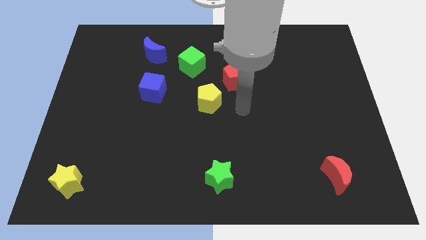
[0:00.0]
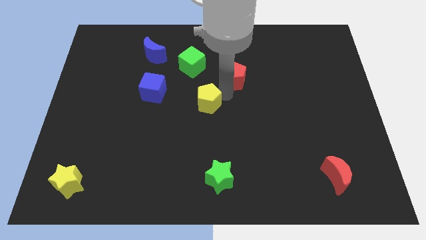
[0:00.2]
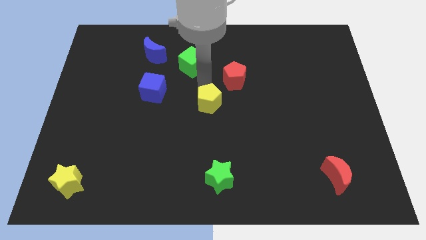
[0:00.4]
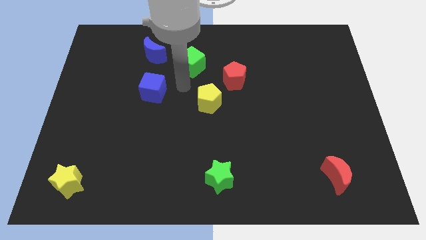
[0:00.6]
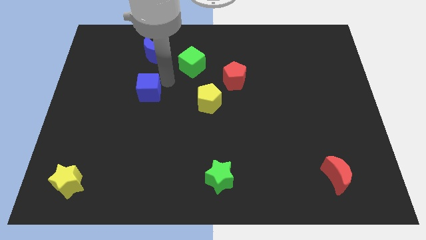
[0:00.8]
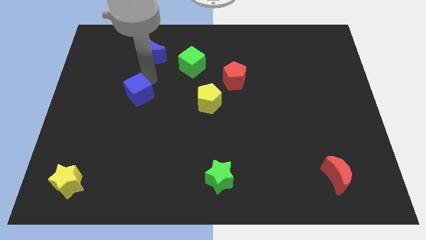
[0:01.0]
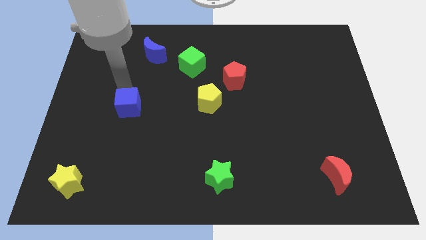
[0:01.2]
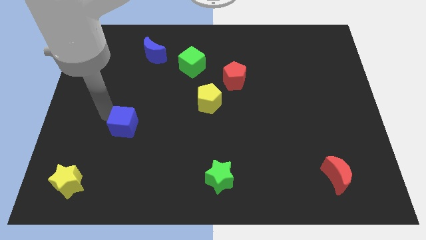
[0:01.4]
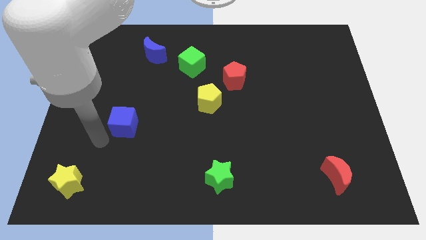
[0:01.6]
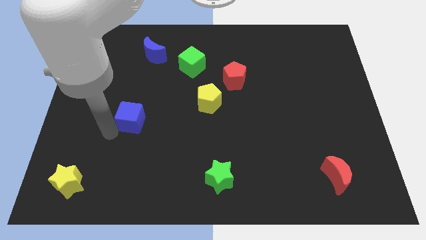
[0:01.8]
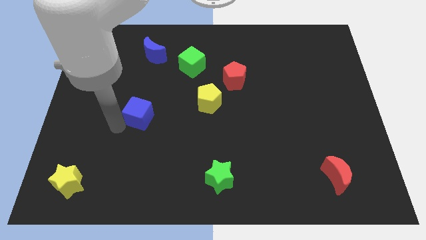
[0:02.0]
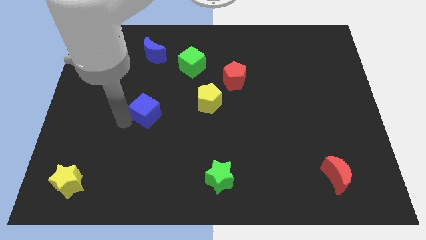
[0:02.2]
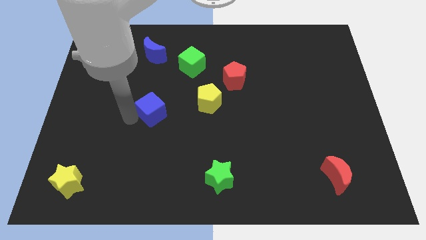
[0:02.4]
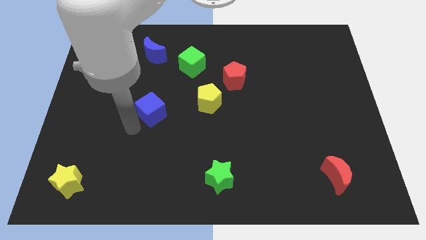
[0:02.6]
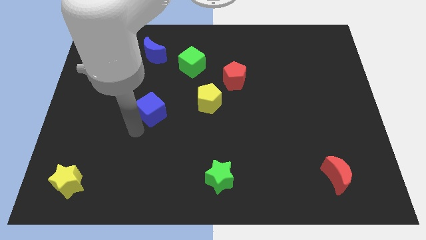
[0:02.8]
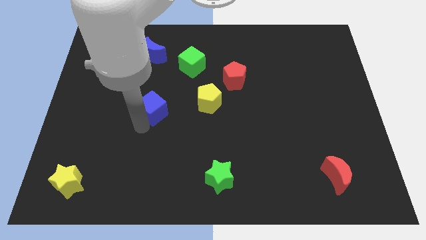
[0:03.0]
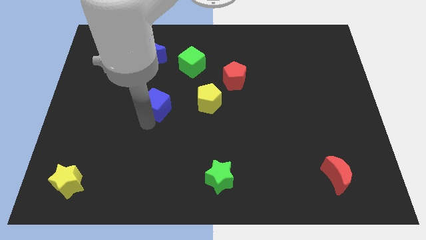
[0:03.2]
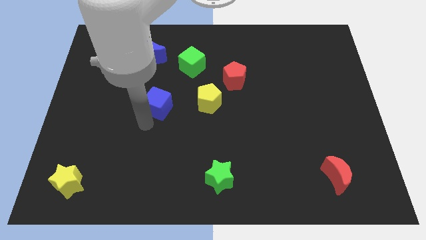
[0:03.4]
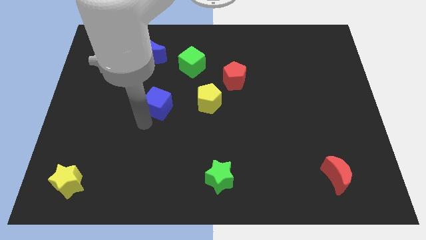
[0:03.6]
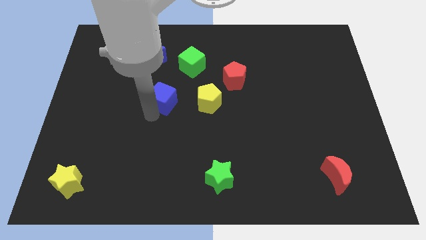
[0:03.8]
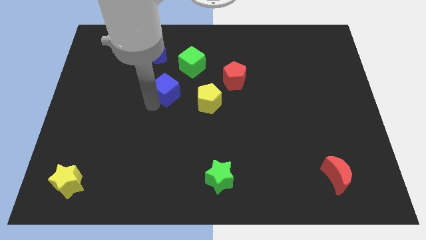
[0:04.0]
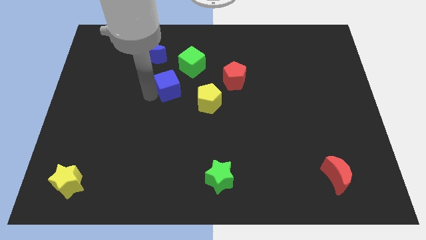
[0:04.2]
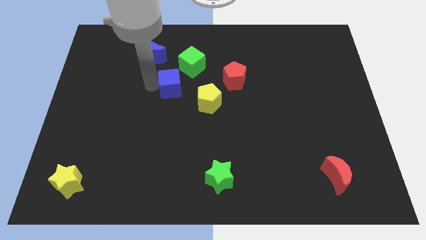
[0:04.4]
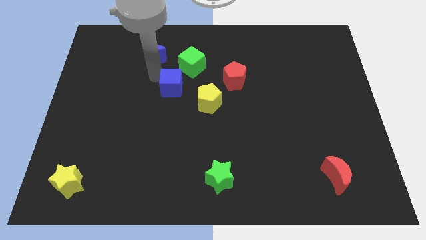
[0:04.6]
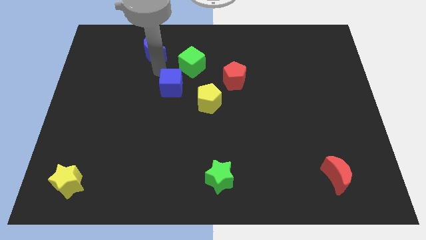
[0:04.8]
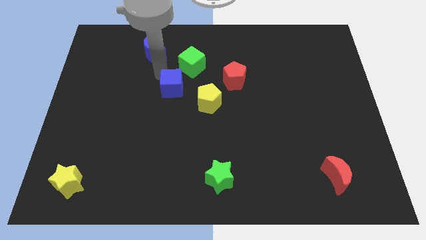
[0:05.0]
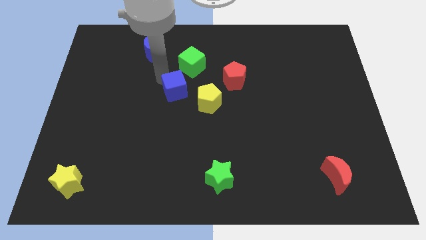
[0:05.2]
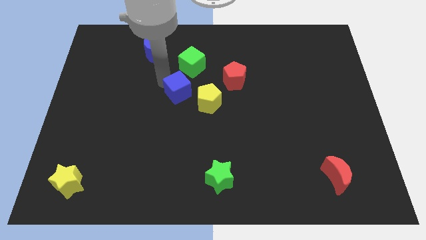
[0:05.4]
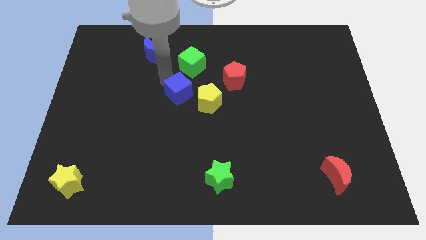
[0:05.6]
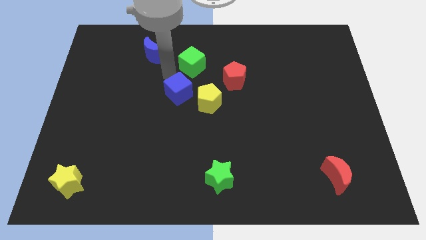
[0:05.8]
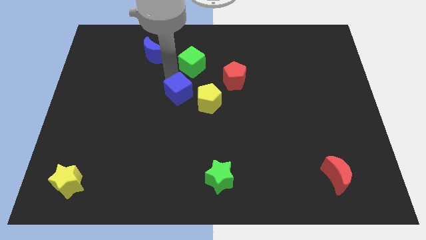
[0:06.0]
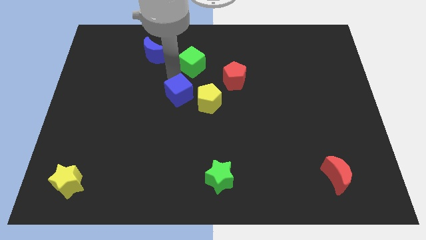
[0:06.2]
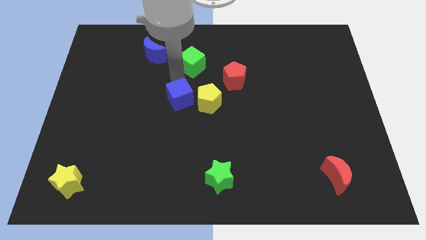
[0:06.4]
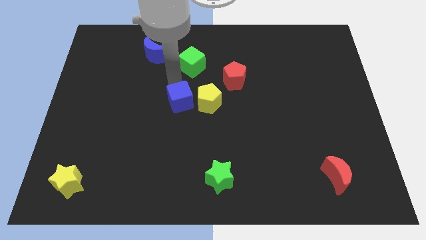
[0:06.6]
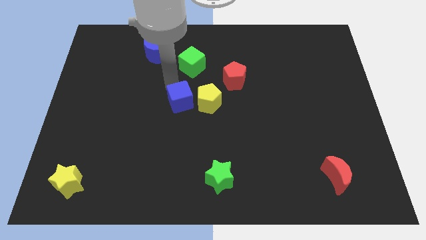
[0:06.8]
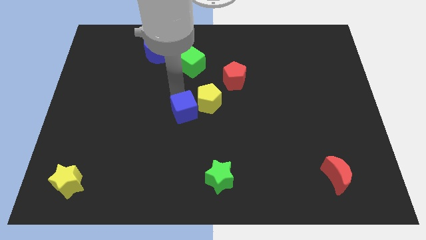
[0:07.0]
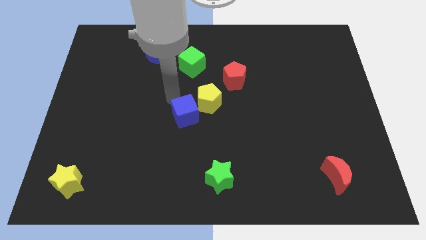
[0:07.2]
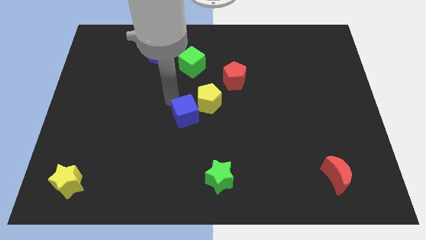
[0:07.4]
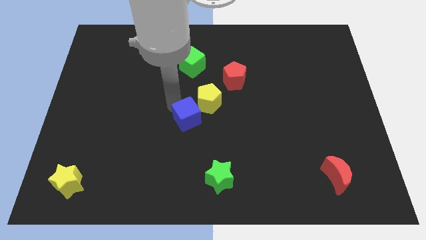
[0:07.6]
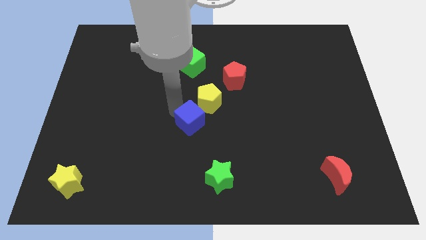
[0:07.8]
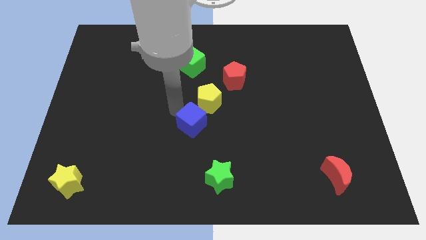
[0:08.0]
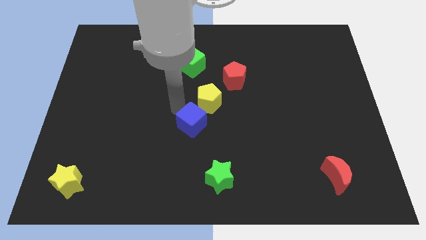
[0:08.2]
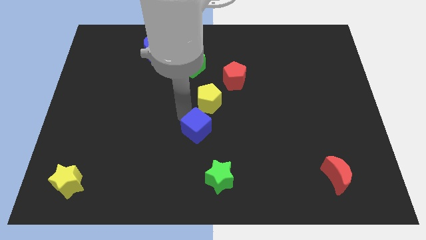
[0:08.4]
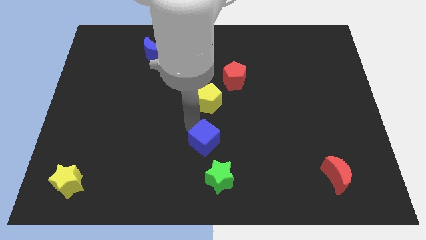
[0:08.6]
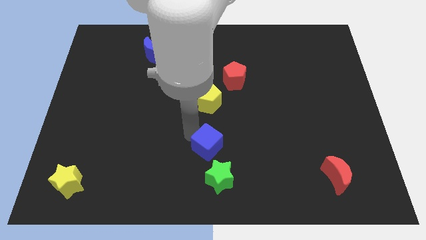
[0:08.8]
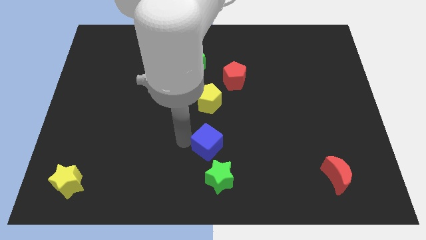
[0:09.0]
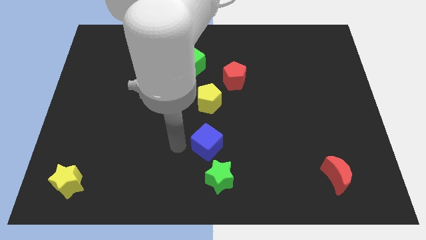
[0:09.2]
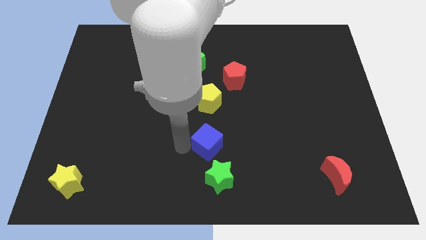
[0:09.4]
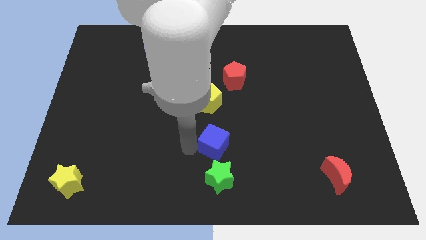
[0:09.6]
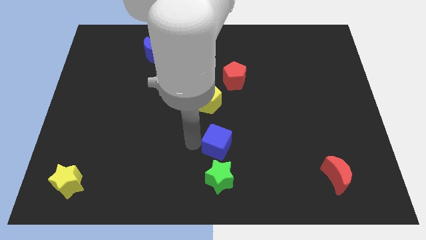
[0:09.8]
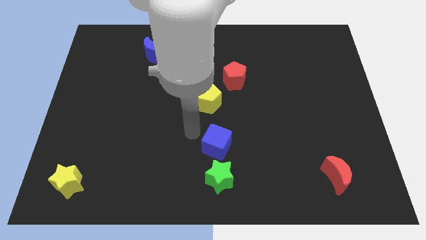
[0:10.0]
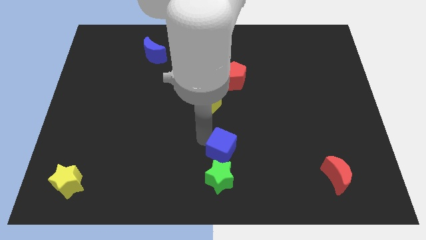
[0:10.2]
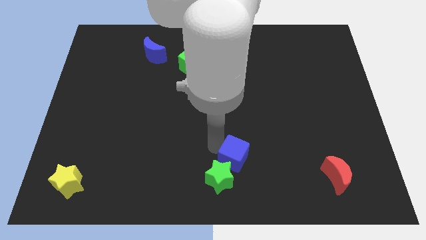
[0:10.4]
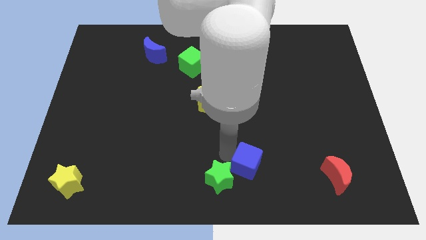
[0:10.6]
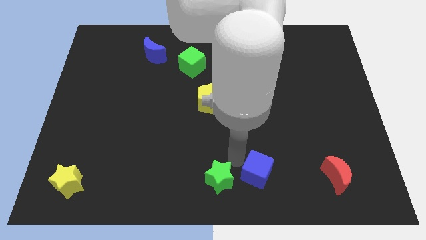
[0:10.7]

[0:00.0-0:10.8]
push the blue cube just left of the red moon

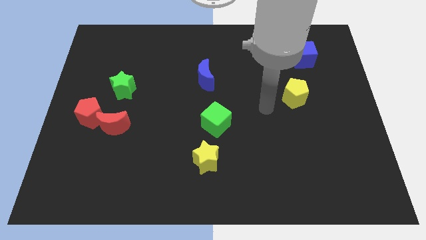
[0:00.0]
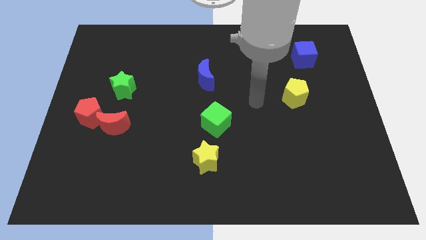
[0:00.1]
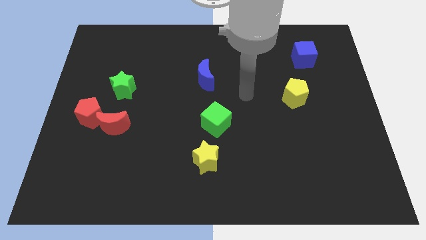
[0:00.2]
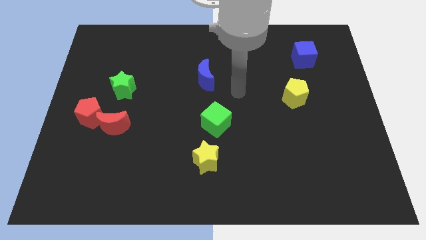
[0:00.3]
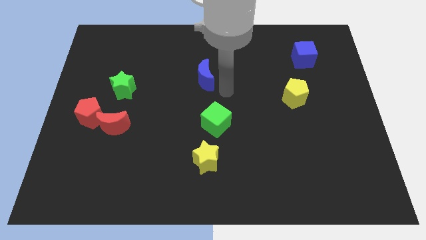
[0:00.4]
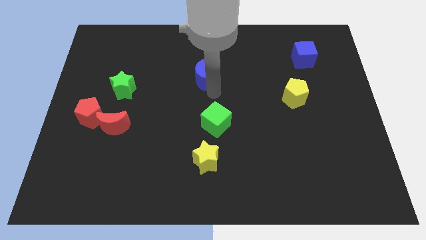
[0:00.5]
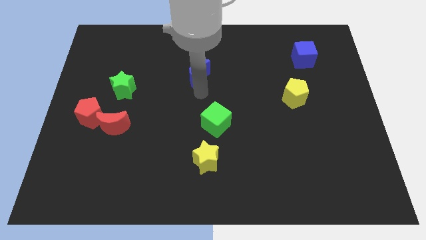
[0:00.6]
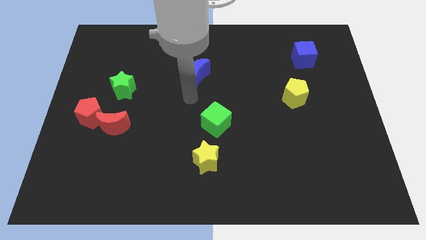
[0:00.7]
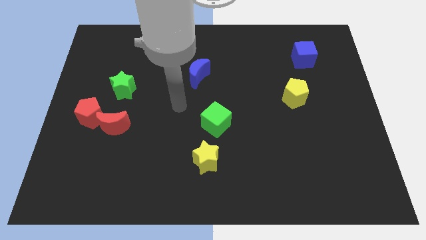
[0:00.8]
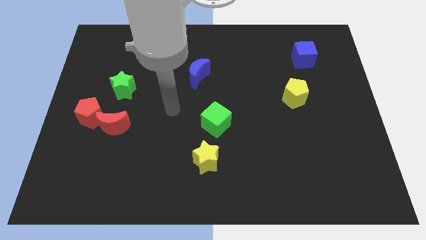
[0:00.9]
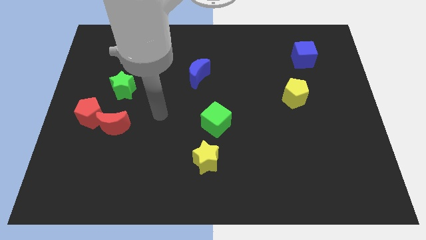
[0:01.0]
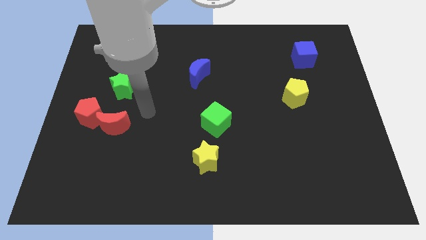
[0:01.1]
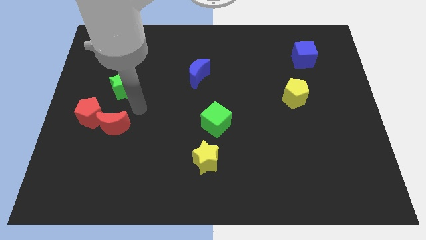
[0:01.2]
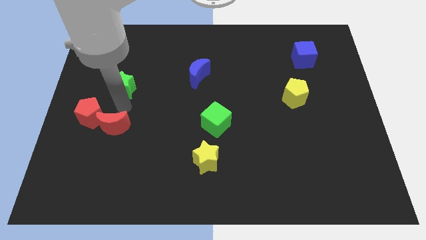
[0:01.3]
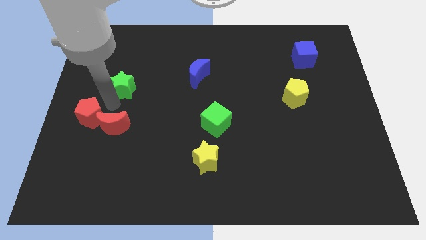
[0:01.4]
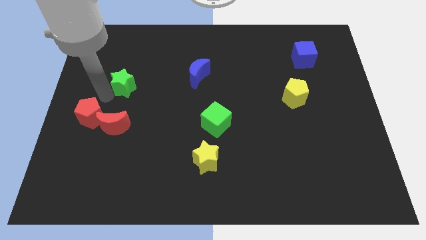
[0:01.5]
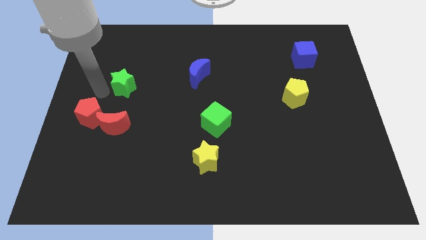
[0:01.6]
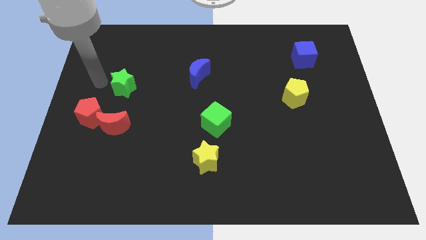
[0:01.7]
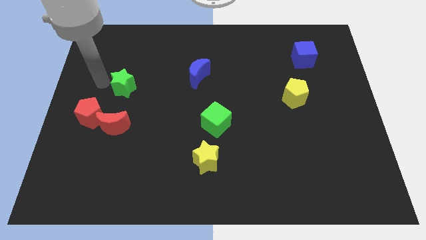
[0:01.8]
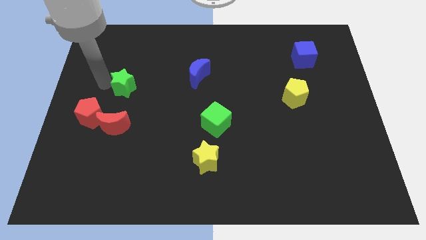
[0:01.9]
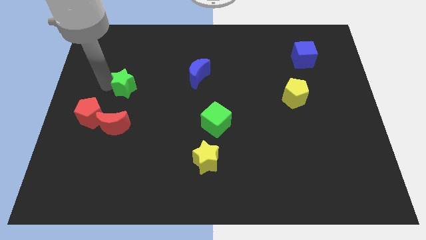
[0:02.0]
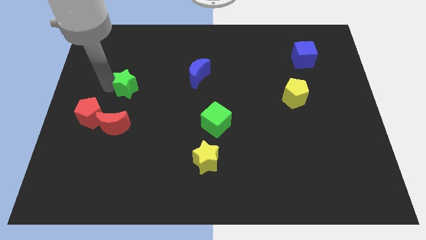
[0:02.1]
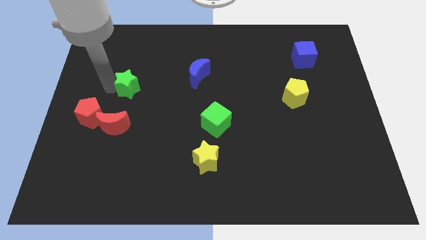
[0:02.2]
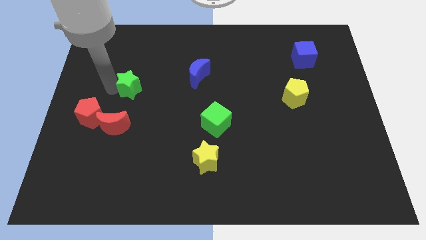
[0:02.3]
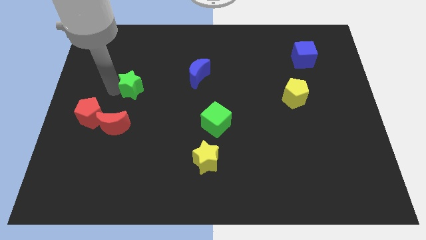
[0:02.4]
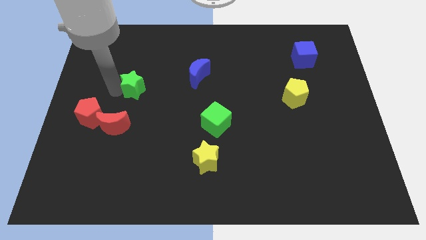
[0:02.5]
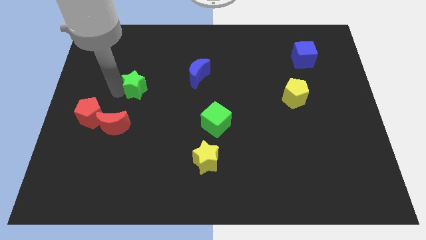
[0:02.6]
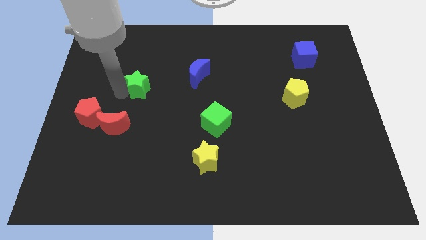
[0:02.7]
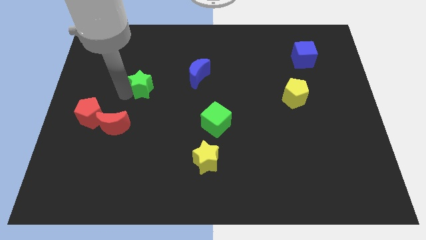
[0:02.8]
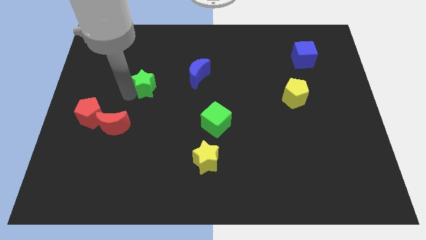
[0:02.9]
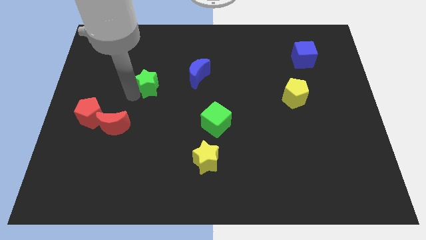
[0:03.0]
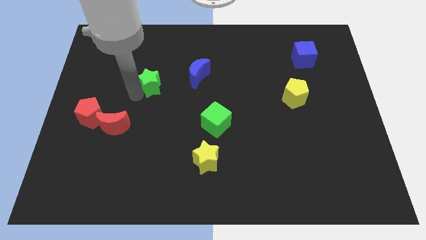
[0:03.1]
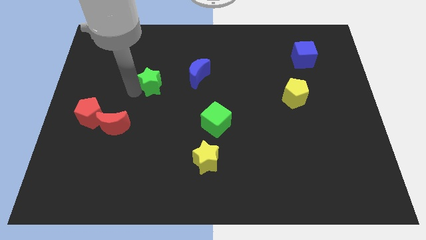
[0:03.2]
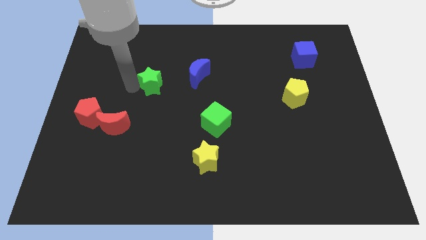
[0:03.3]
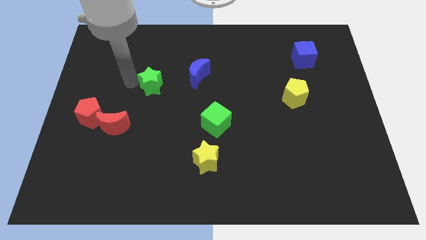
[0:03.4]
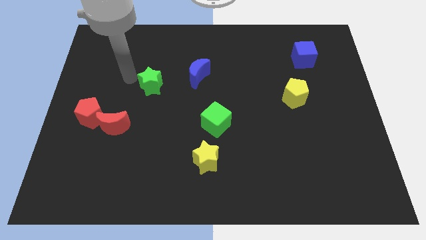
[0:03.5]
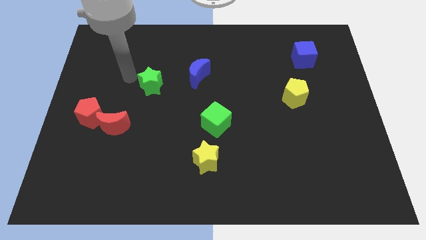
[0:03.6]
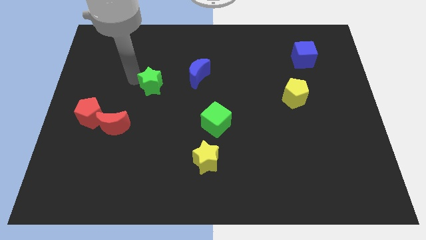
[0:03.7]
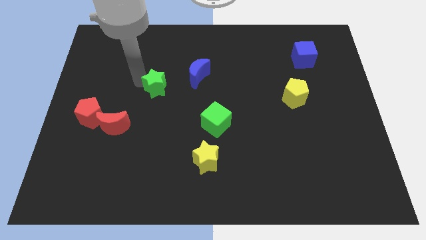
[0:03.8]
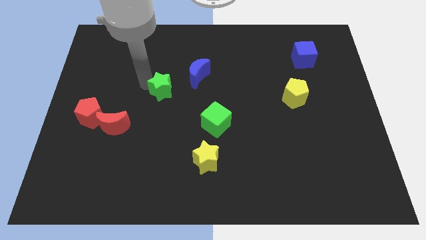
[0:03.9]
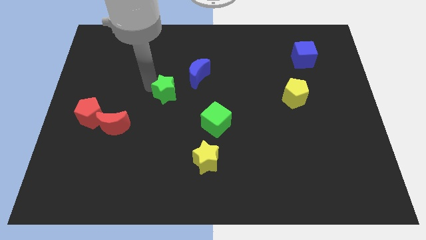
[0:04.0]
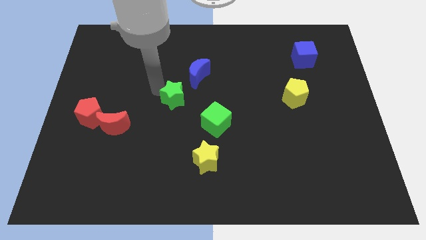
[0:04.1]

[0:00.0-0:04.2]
move the green star to the top left side of the green cube
